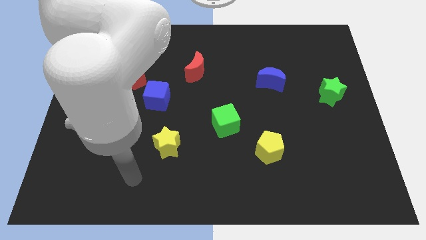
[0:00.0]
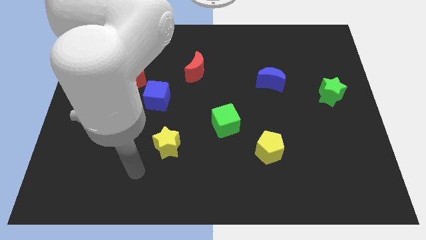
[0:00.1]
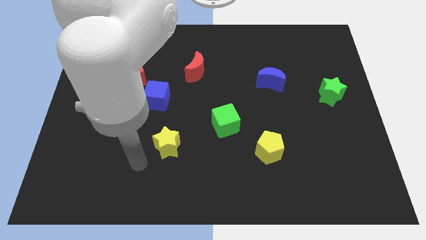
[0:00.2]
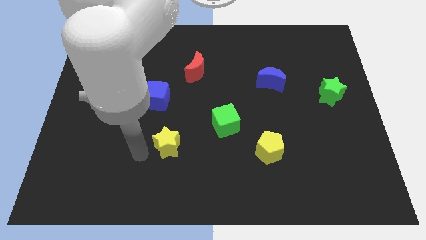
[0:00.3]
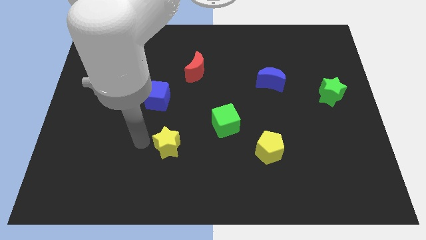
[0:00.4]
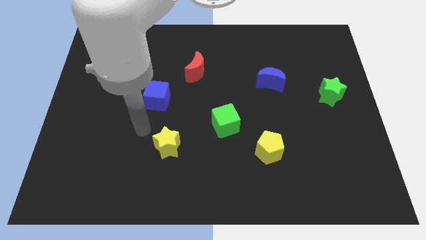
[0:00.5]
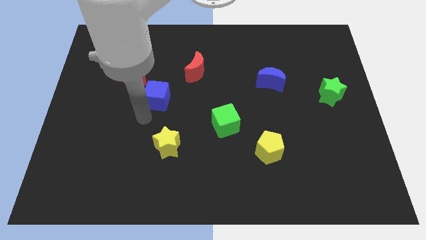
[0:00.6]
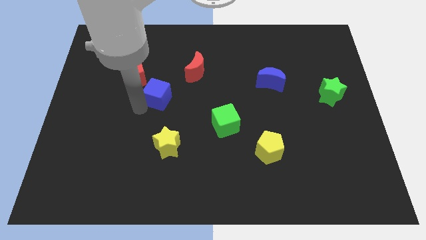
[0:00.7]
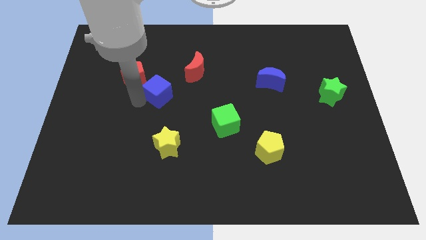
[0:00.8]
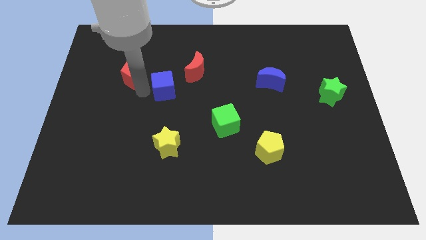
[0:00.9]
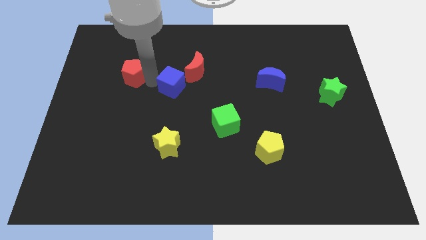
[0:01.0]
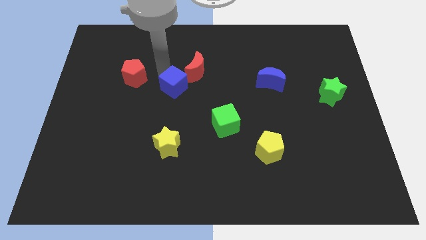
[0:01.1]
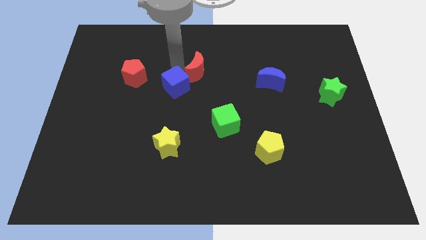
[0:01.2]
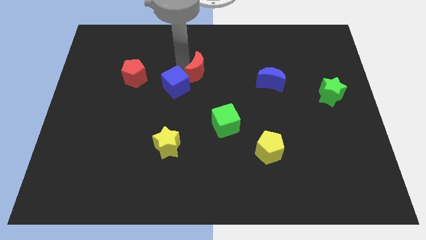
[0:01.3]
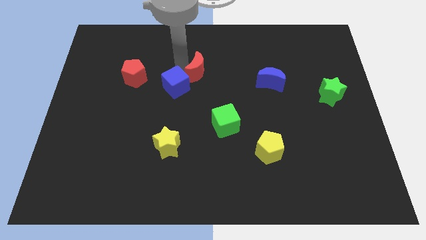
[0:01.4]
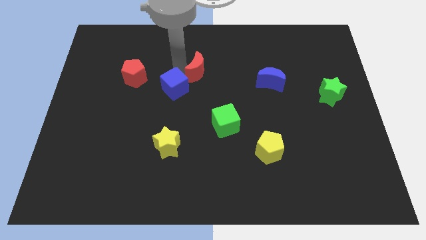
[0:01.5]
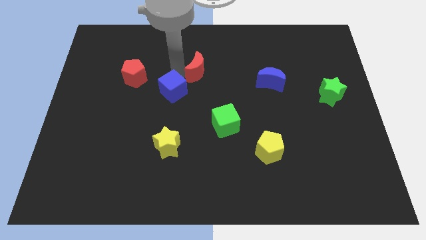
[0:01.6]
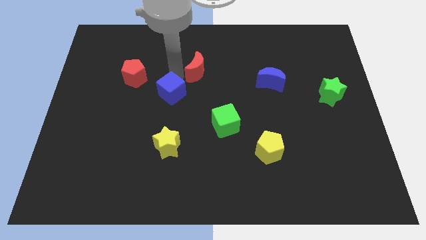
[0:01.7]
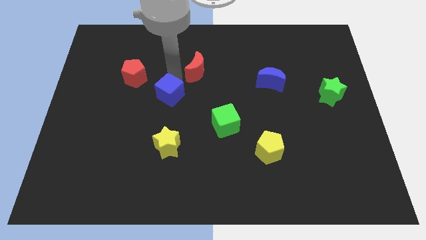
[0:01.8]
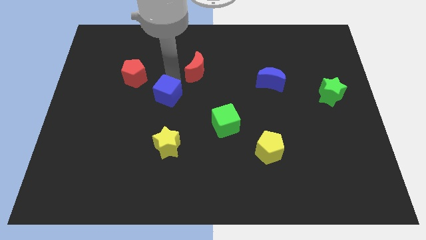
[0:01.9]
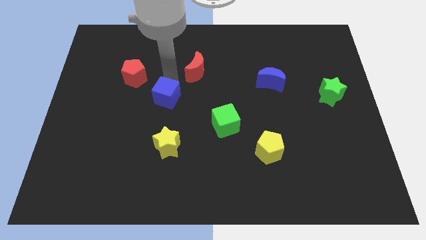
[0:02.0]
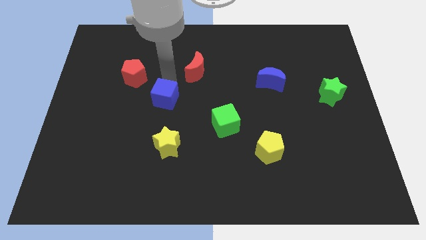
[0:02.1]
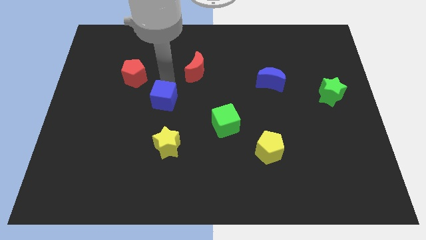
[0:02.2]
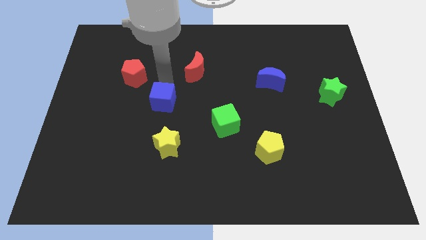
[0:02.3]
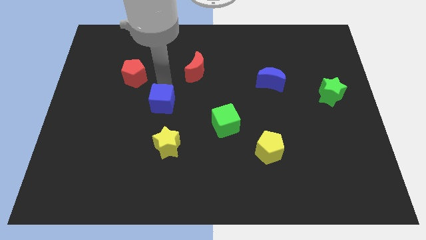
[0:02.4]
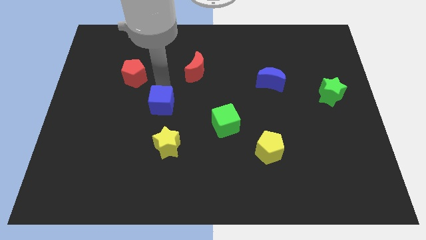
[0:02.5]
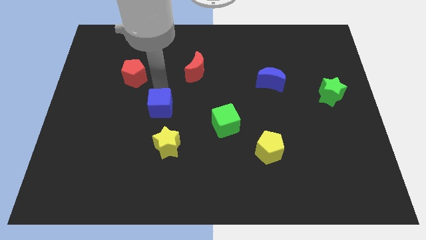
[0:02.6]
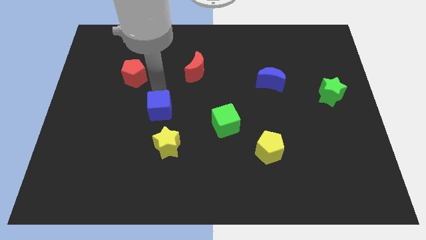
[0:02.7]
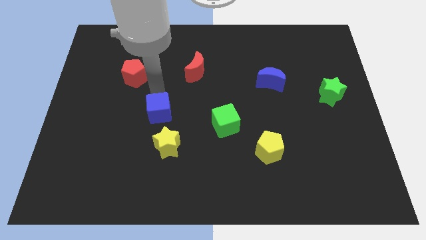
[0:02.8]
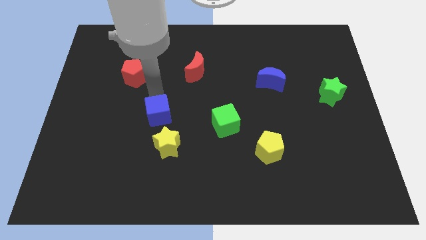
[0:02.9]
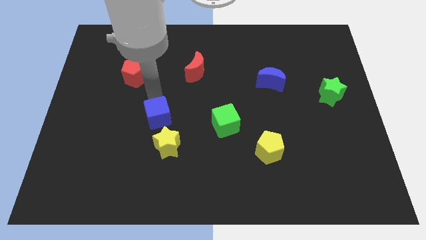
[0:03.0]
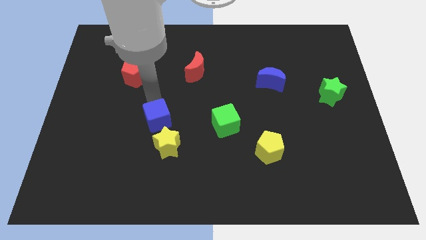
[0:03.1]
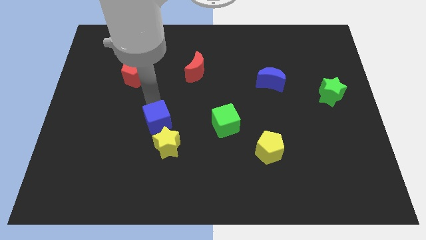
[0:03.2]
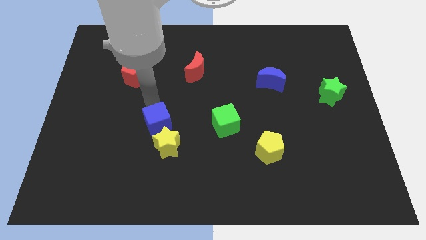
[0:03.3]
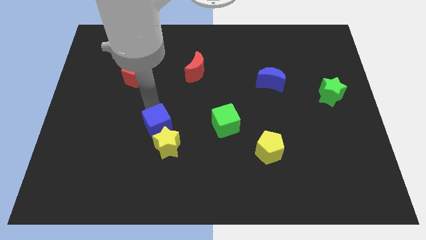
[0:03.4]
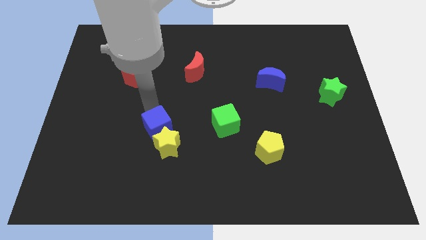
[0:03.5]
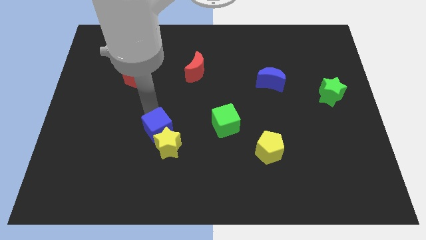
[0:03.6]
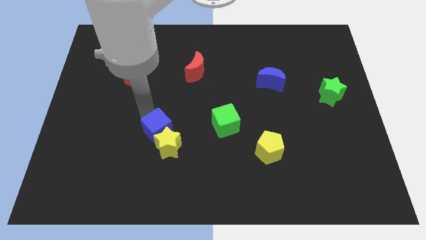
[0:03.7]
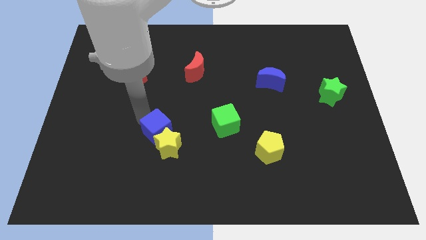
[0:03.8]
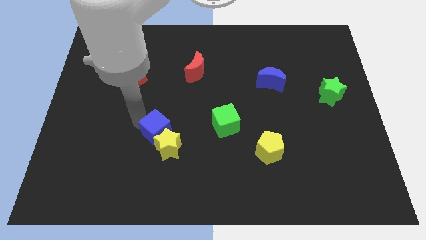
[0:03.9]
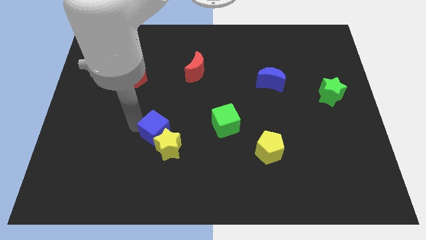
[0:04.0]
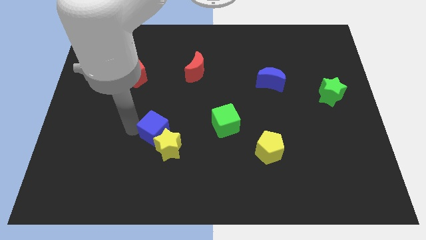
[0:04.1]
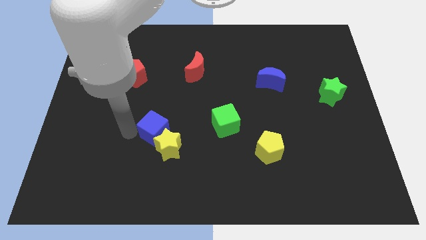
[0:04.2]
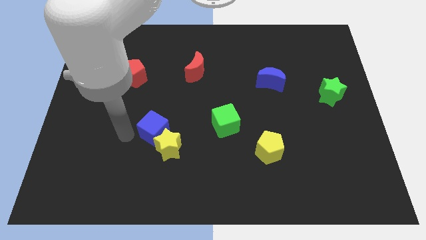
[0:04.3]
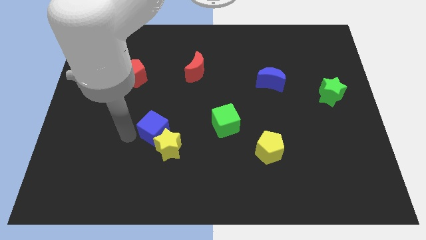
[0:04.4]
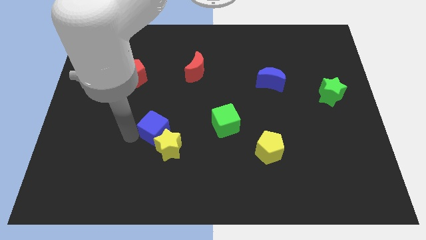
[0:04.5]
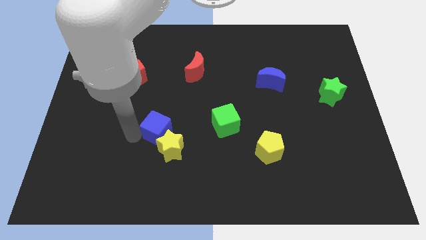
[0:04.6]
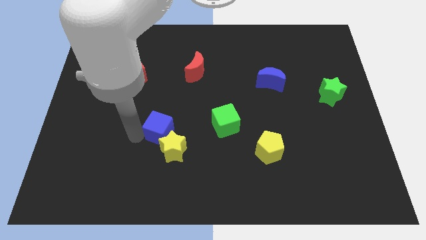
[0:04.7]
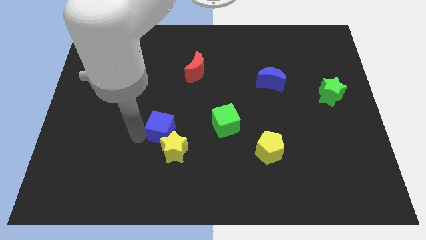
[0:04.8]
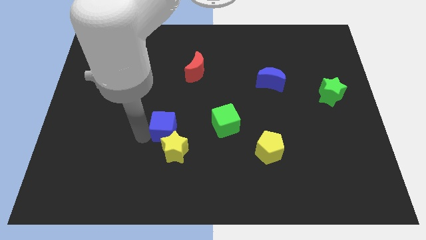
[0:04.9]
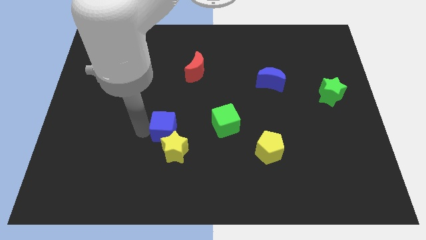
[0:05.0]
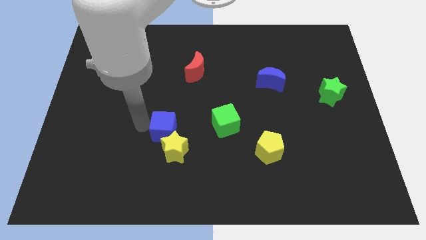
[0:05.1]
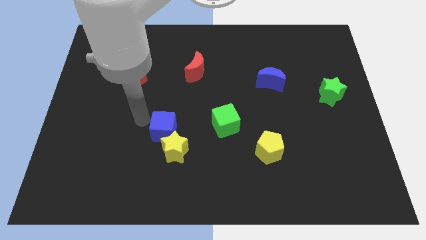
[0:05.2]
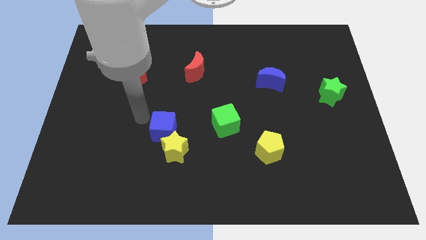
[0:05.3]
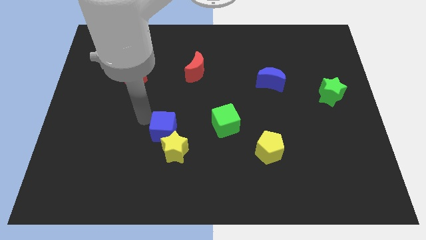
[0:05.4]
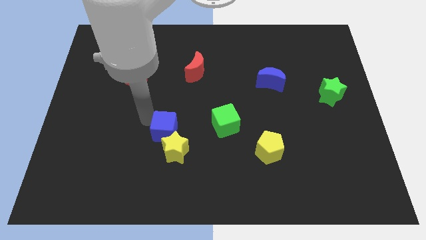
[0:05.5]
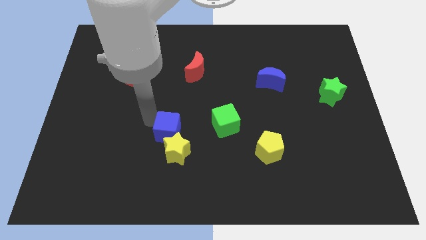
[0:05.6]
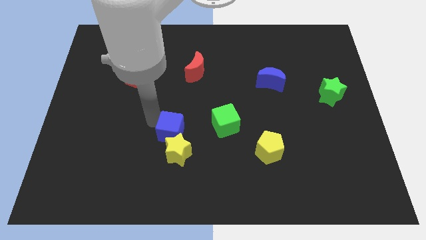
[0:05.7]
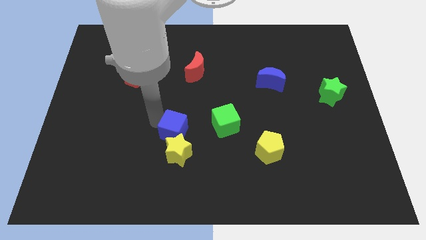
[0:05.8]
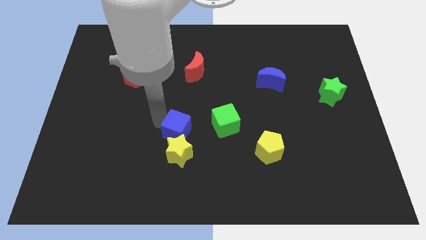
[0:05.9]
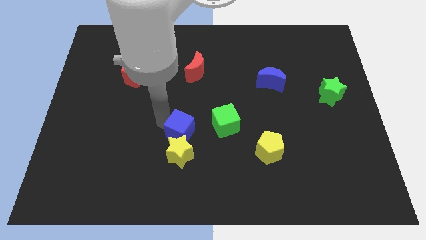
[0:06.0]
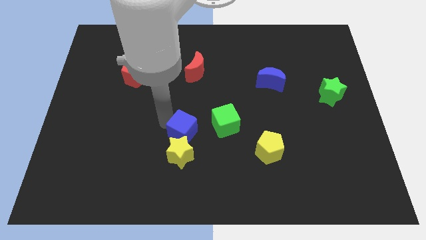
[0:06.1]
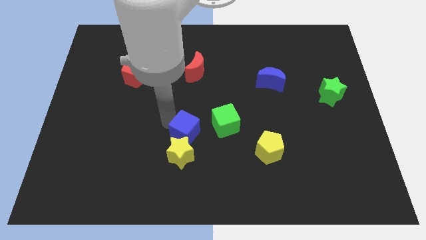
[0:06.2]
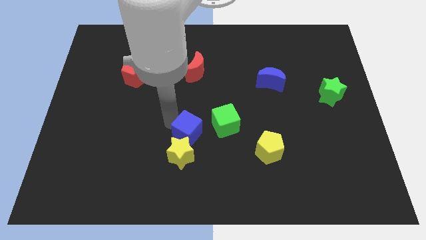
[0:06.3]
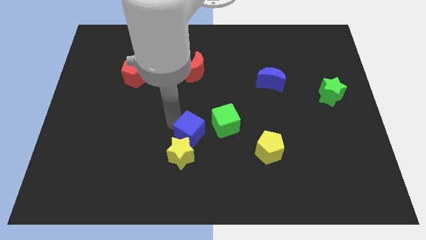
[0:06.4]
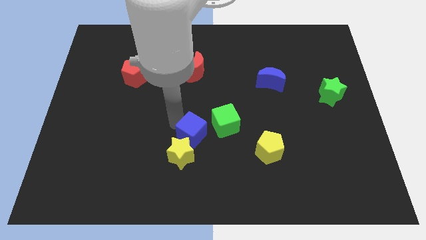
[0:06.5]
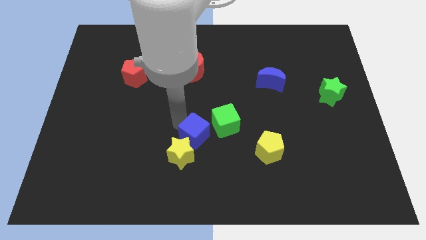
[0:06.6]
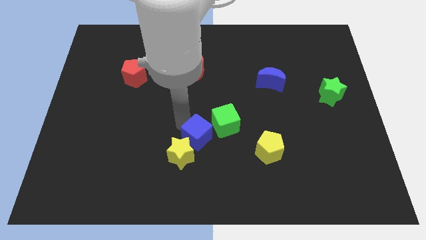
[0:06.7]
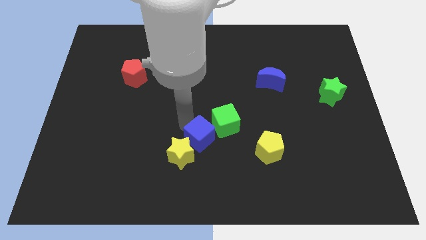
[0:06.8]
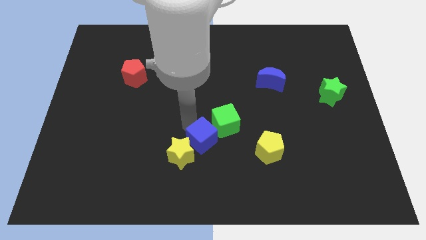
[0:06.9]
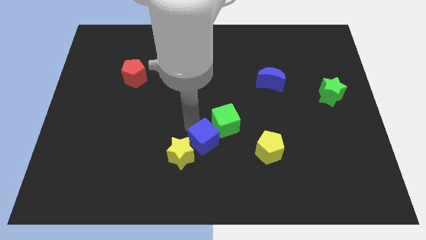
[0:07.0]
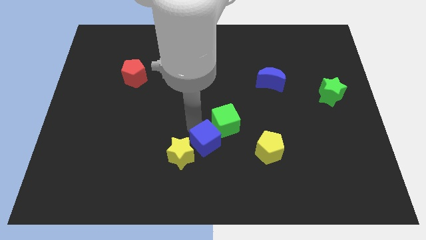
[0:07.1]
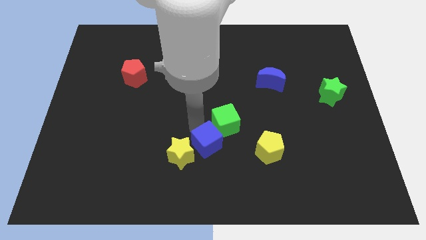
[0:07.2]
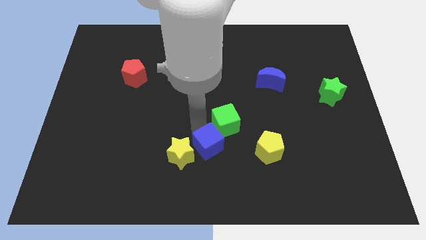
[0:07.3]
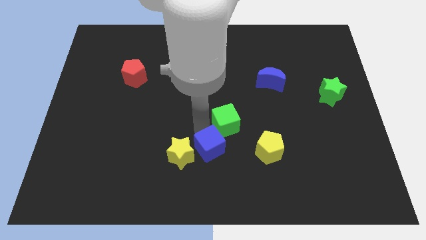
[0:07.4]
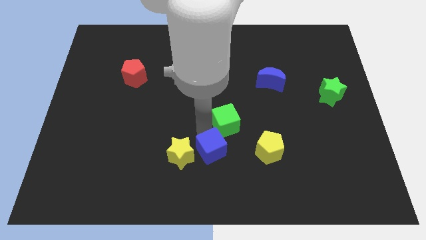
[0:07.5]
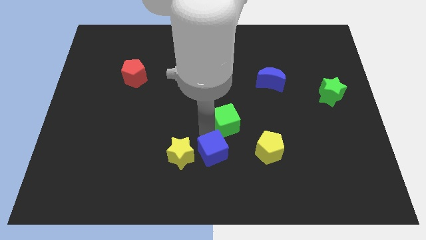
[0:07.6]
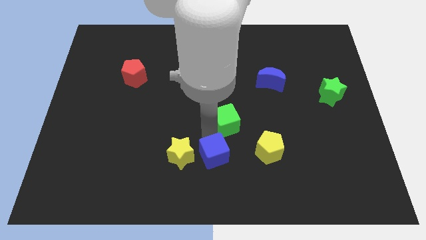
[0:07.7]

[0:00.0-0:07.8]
move the blue cube to the bottom side
